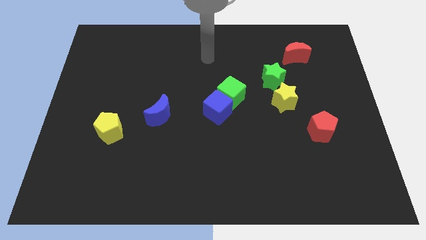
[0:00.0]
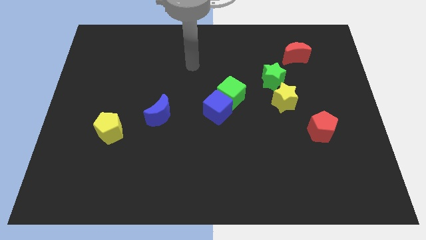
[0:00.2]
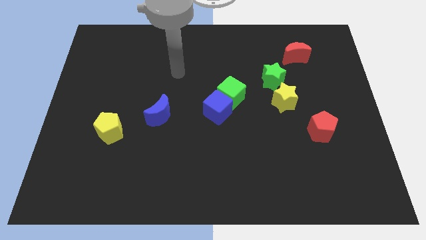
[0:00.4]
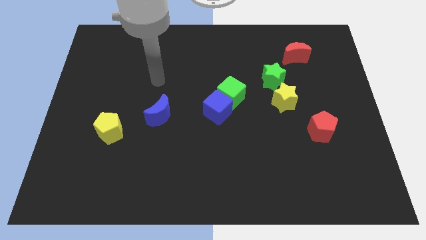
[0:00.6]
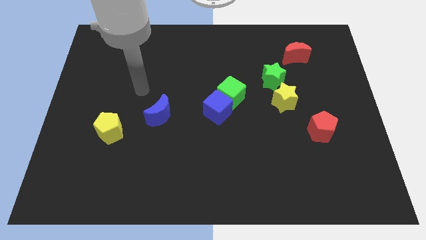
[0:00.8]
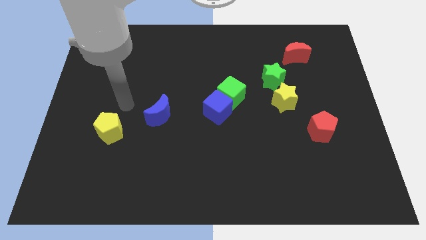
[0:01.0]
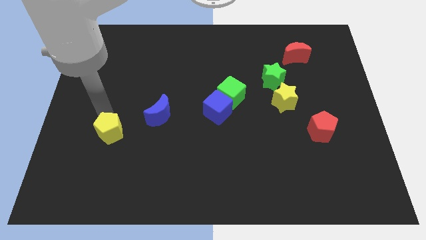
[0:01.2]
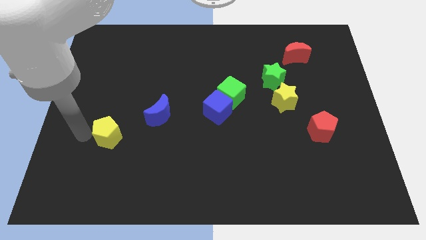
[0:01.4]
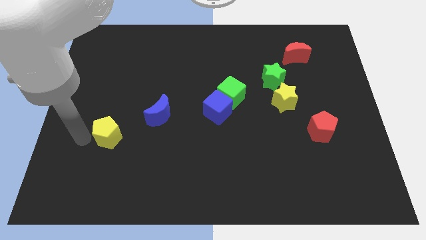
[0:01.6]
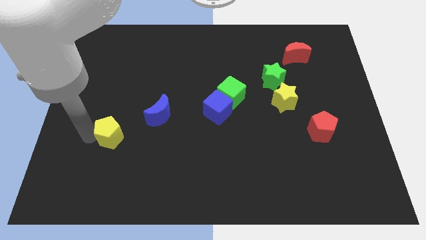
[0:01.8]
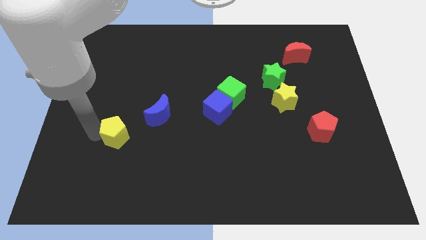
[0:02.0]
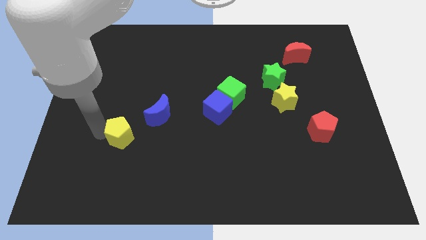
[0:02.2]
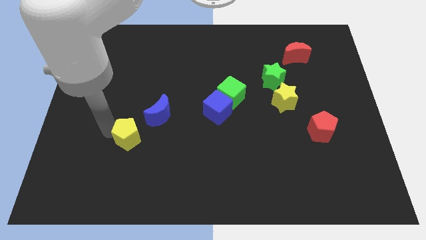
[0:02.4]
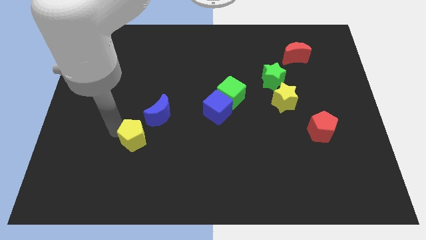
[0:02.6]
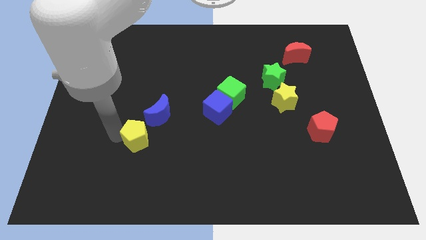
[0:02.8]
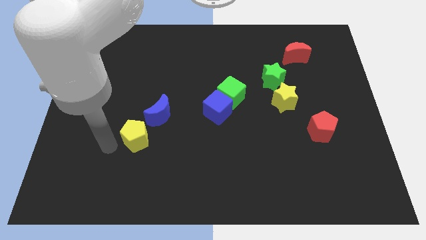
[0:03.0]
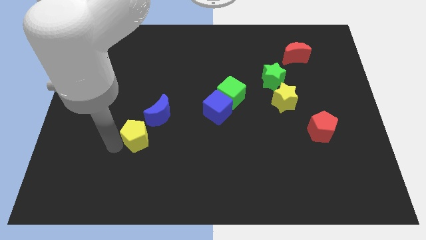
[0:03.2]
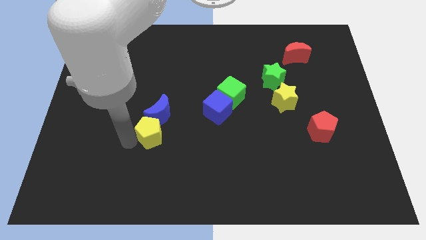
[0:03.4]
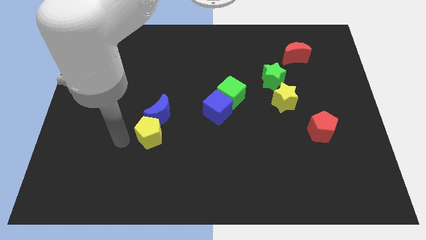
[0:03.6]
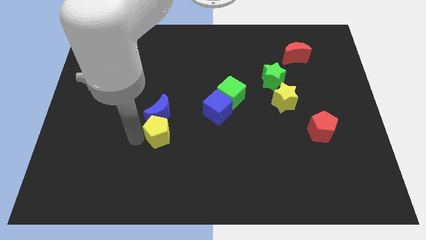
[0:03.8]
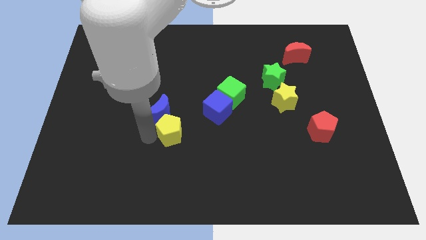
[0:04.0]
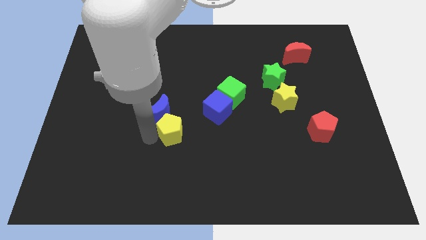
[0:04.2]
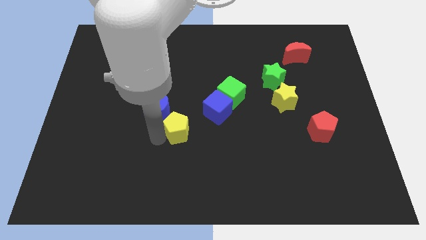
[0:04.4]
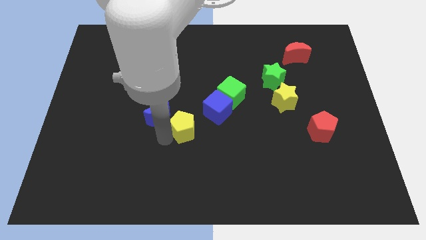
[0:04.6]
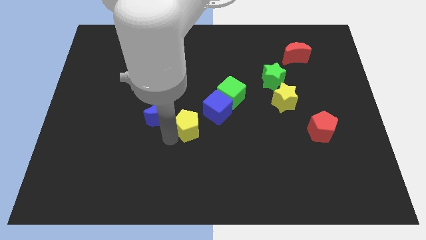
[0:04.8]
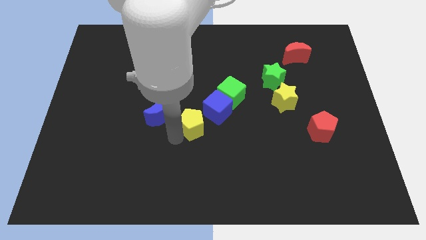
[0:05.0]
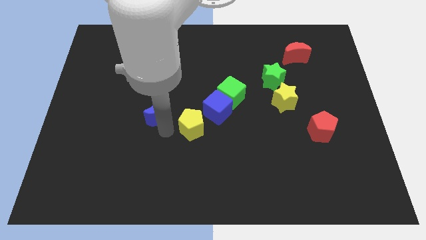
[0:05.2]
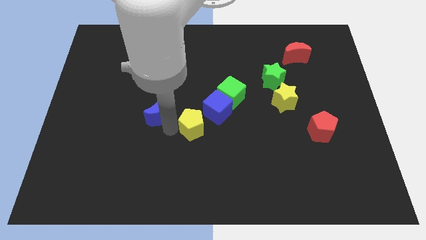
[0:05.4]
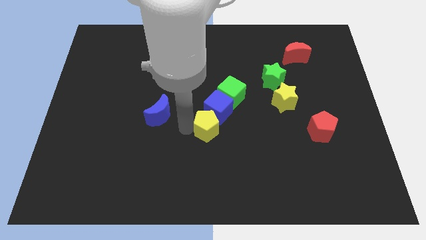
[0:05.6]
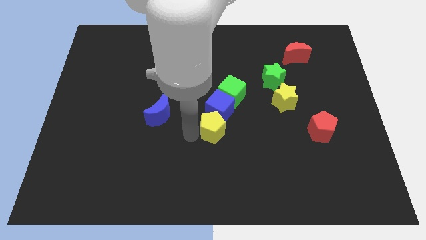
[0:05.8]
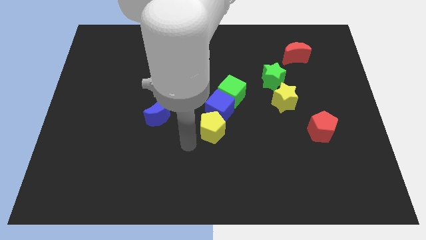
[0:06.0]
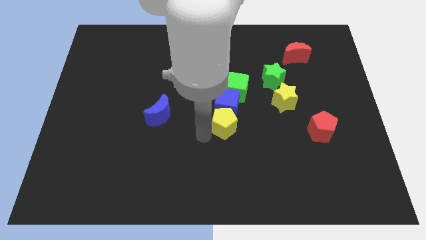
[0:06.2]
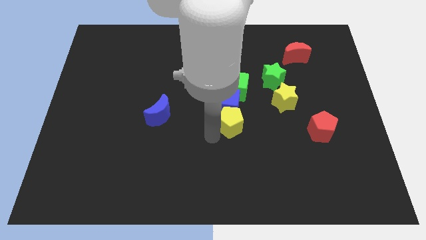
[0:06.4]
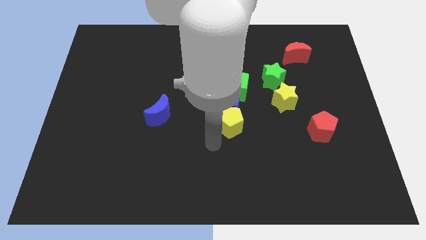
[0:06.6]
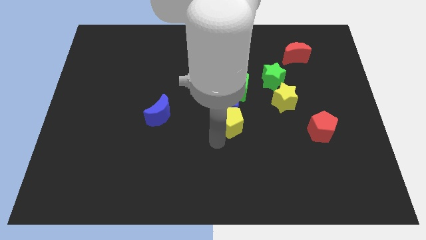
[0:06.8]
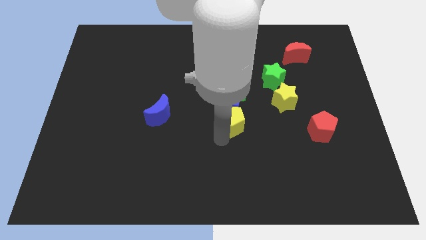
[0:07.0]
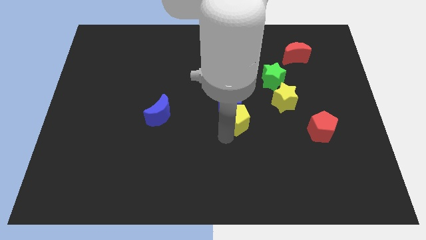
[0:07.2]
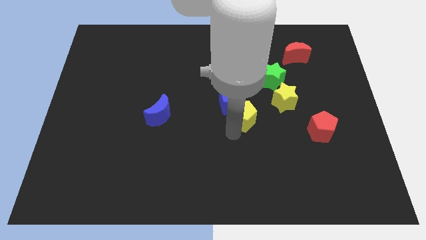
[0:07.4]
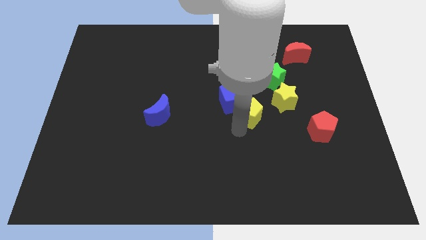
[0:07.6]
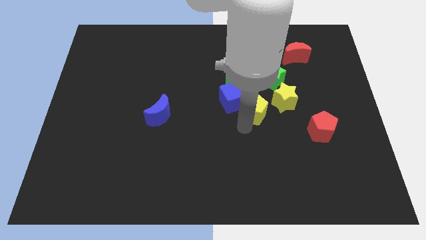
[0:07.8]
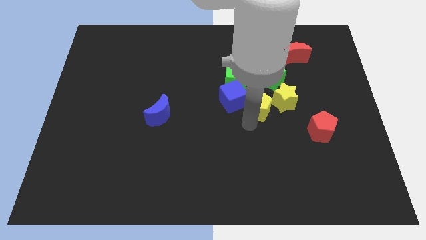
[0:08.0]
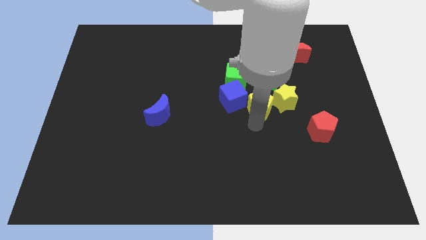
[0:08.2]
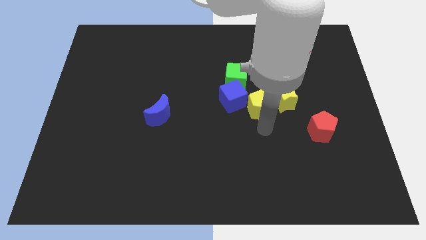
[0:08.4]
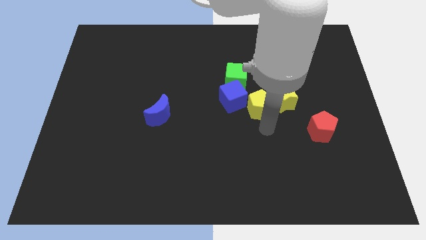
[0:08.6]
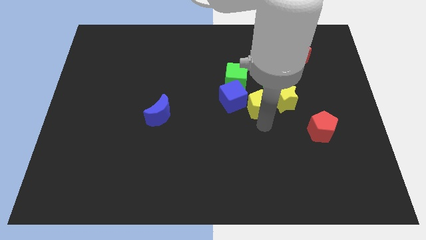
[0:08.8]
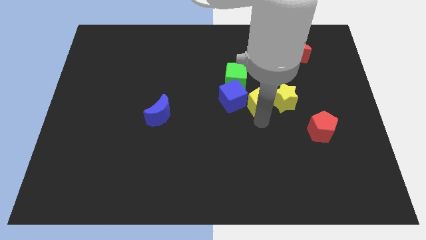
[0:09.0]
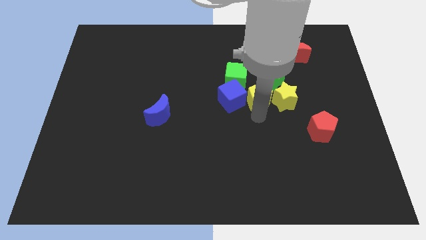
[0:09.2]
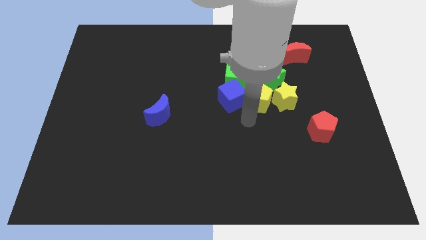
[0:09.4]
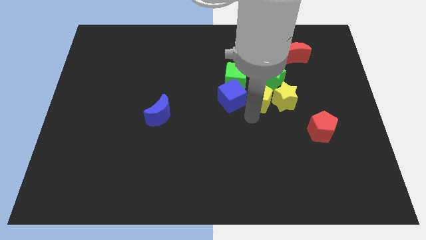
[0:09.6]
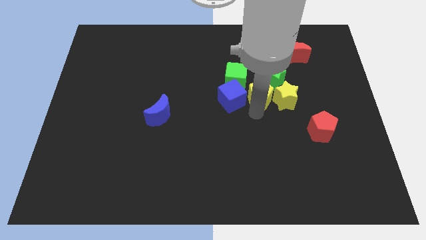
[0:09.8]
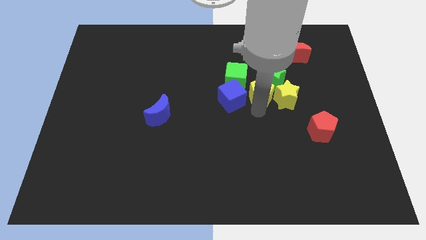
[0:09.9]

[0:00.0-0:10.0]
push the yellow pentagon close to the green star

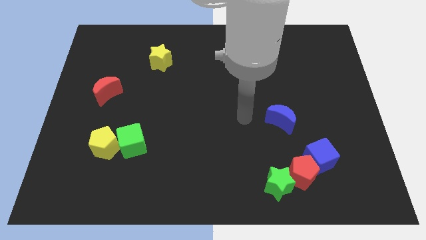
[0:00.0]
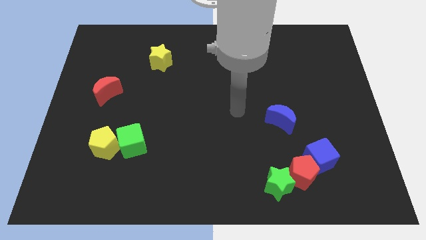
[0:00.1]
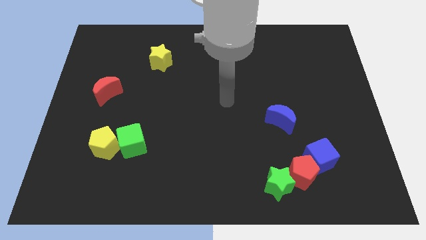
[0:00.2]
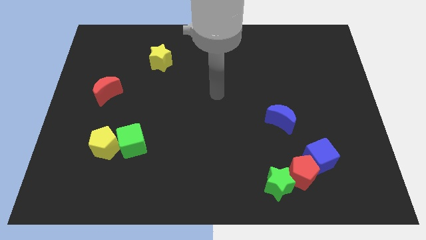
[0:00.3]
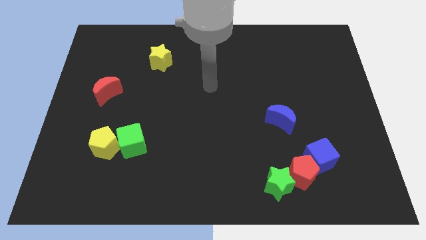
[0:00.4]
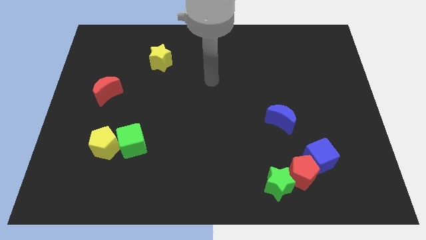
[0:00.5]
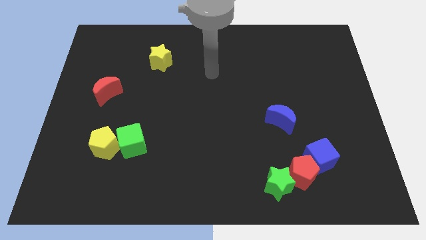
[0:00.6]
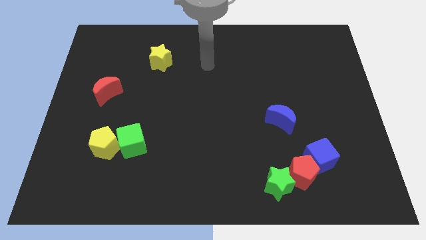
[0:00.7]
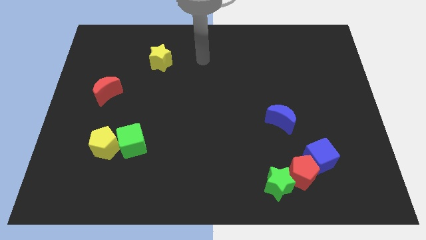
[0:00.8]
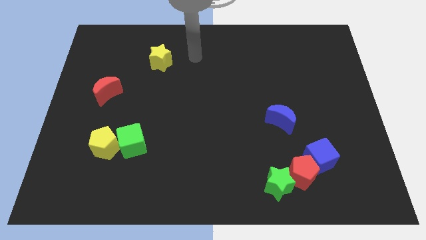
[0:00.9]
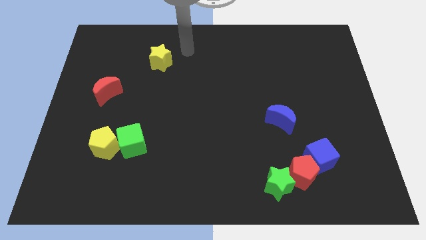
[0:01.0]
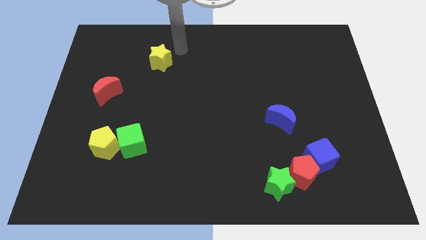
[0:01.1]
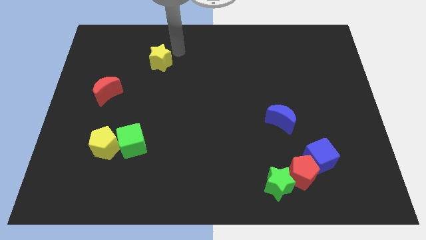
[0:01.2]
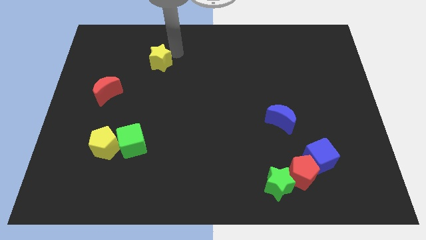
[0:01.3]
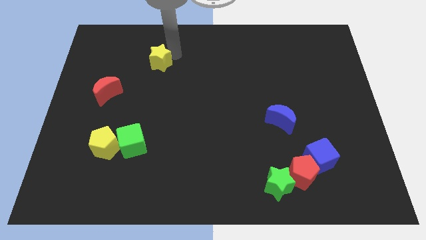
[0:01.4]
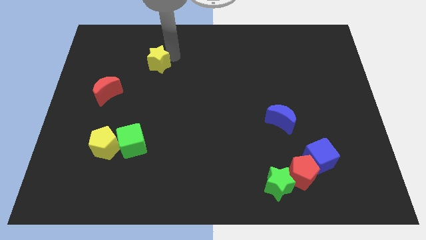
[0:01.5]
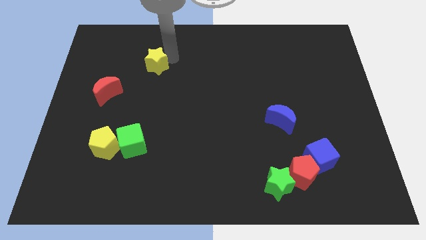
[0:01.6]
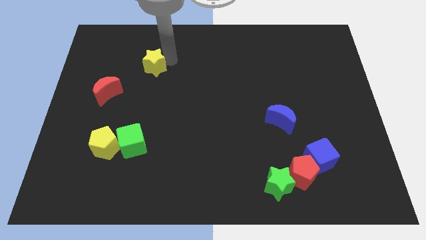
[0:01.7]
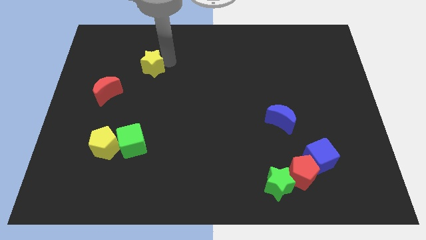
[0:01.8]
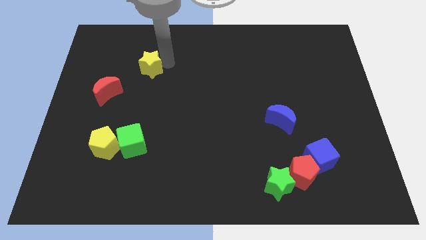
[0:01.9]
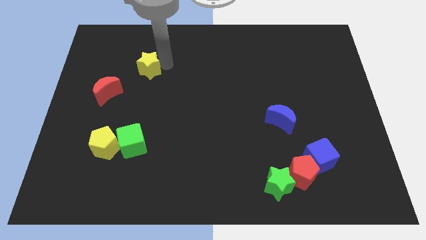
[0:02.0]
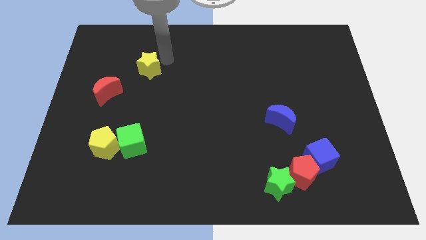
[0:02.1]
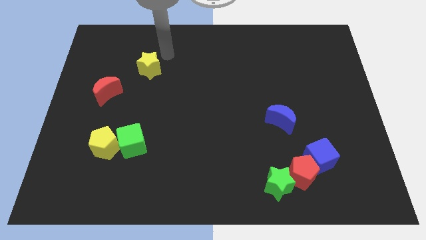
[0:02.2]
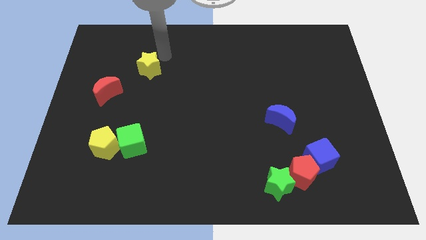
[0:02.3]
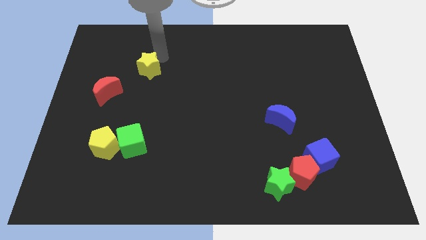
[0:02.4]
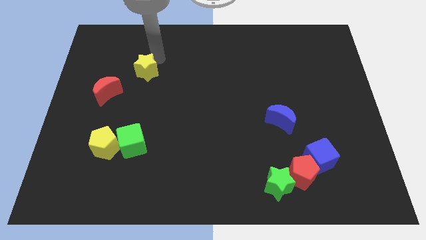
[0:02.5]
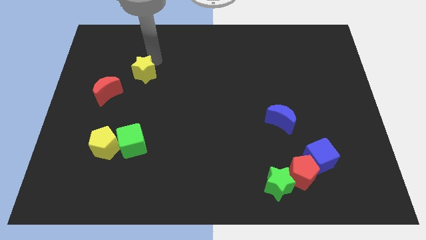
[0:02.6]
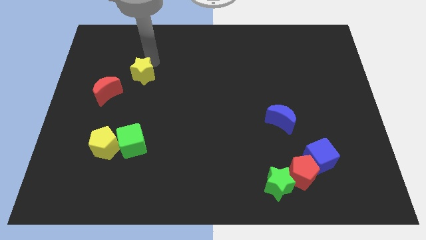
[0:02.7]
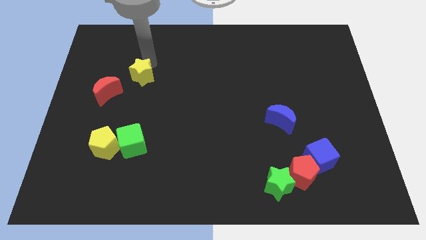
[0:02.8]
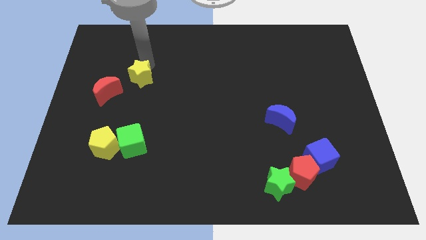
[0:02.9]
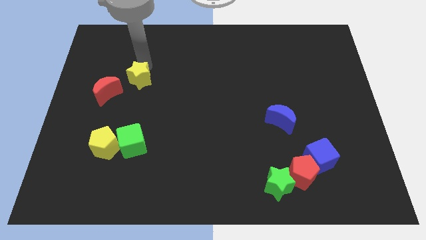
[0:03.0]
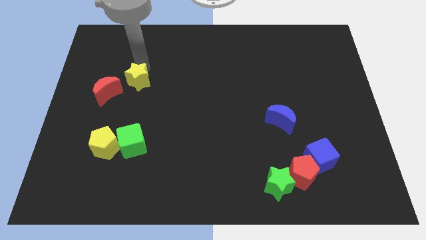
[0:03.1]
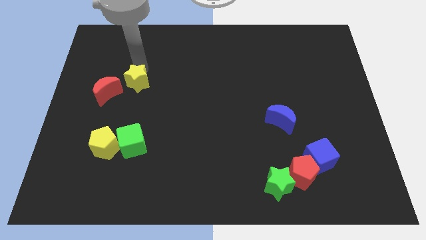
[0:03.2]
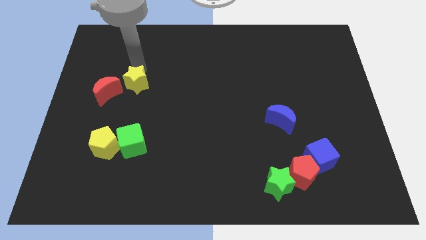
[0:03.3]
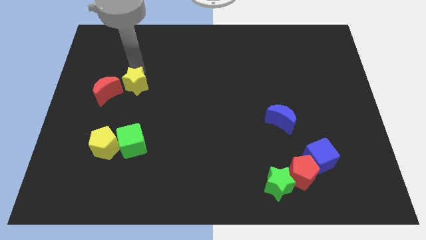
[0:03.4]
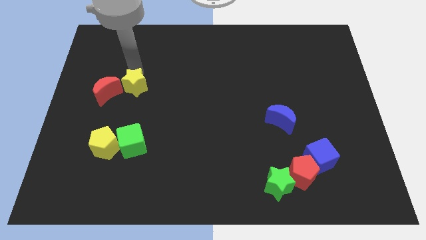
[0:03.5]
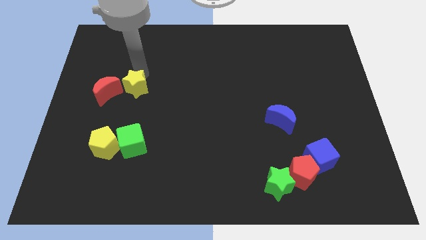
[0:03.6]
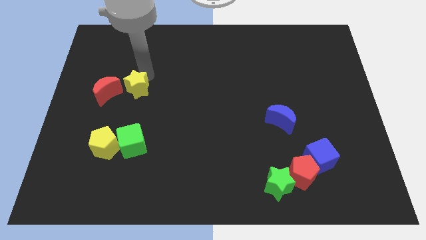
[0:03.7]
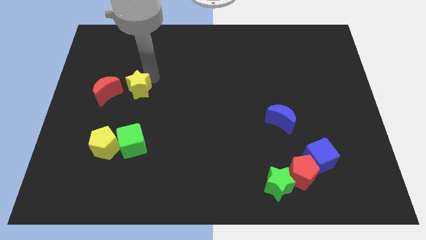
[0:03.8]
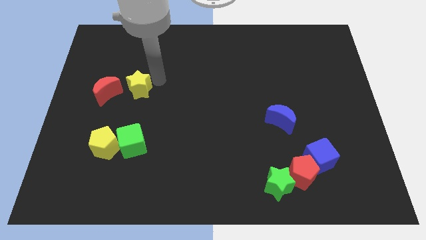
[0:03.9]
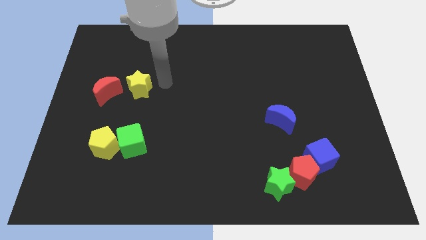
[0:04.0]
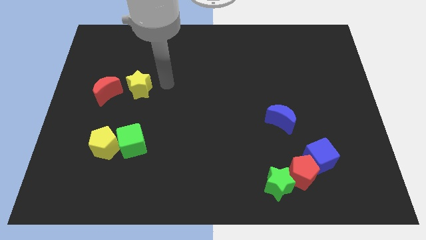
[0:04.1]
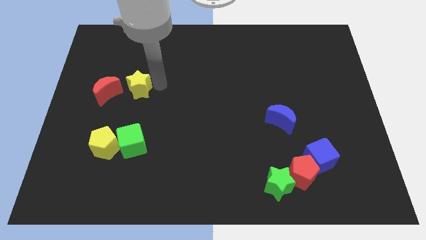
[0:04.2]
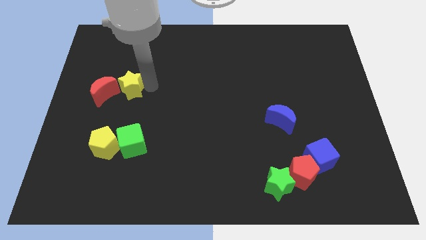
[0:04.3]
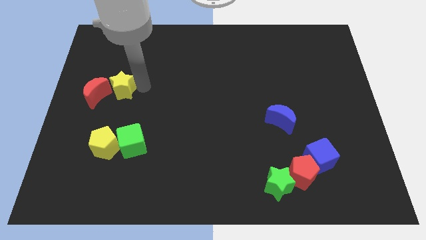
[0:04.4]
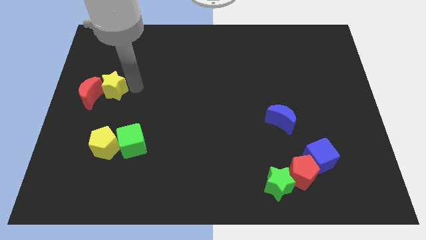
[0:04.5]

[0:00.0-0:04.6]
put the yellow star close to the red moon
